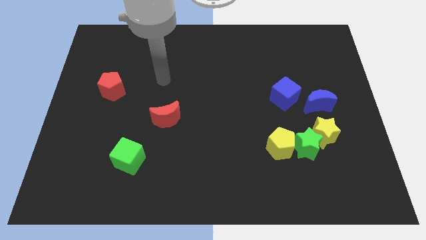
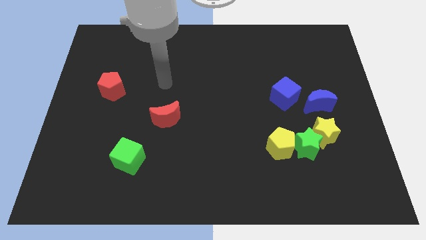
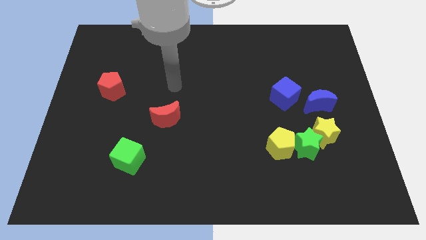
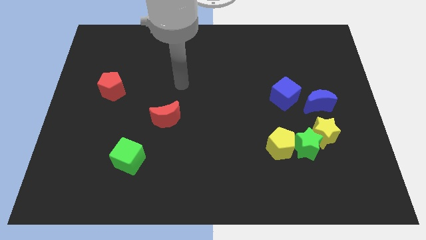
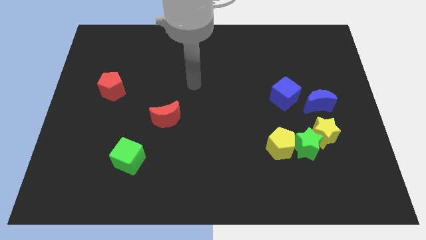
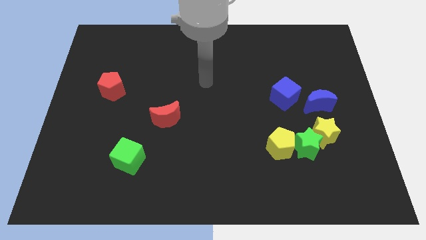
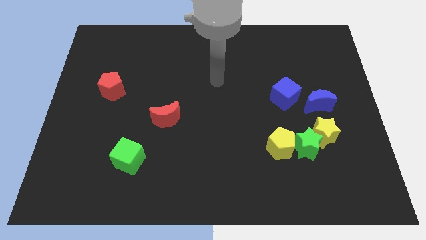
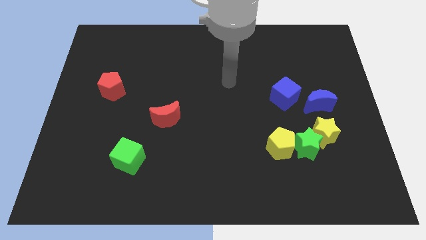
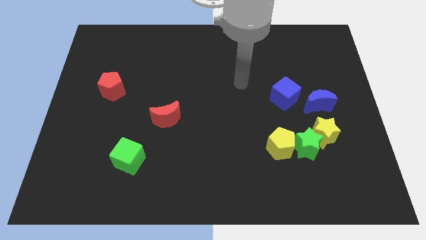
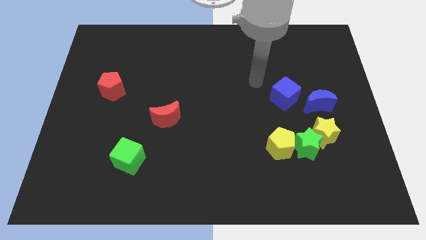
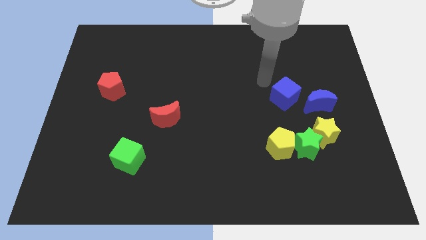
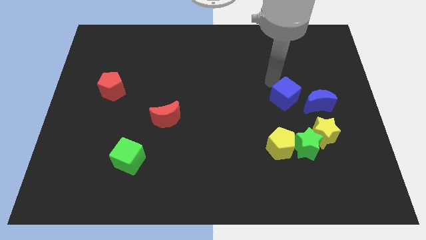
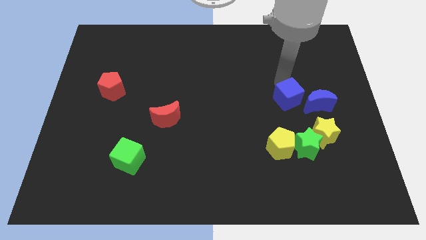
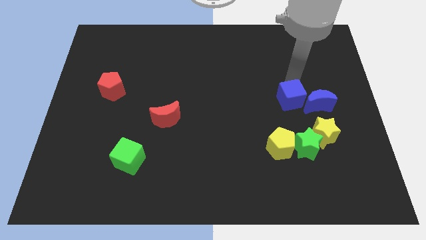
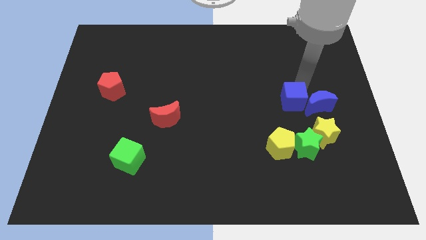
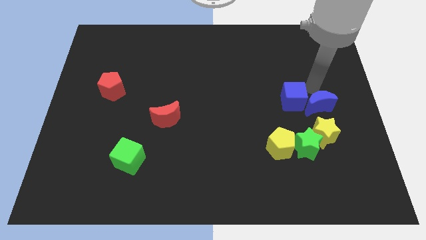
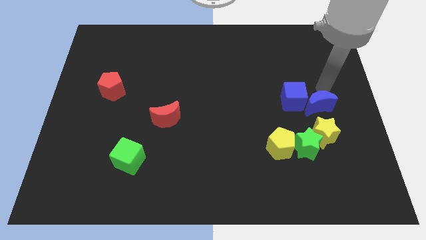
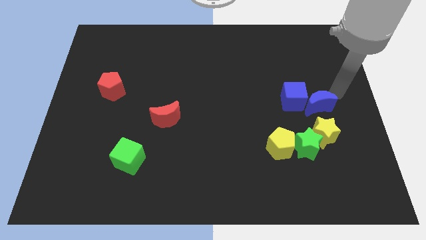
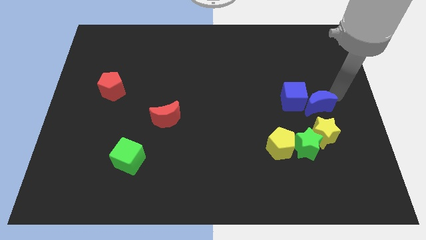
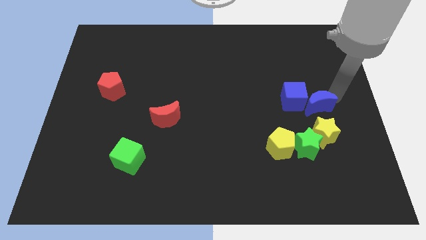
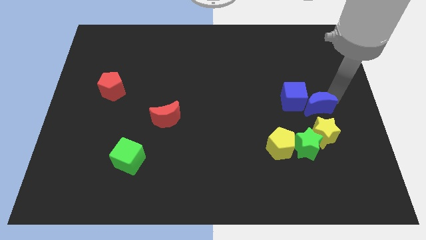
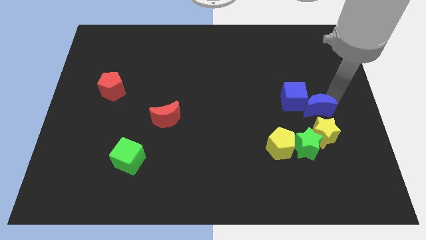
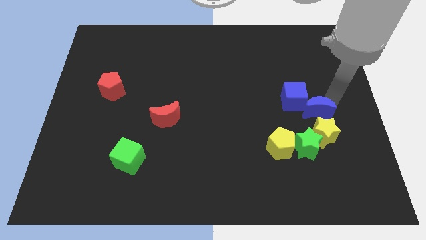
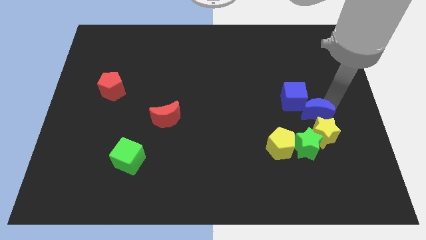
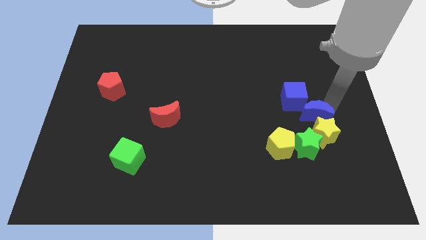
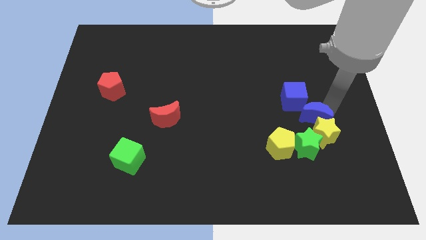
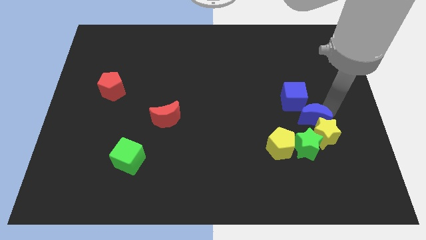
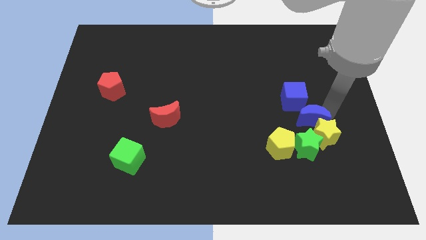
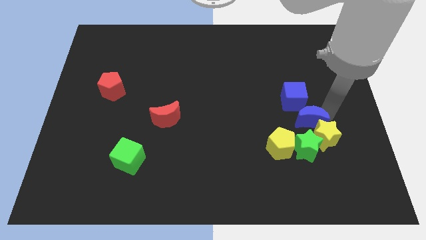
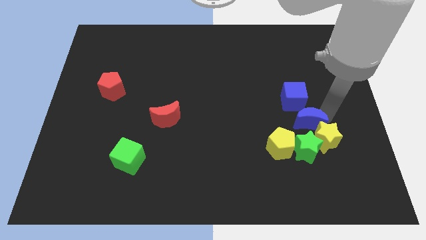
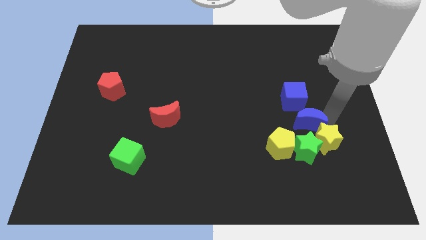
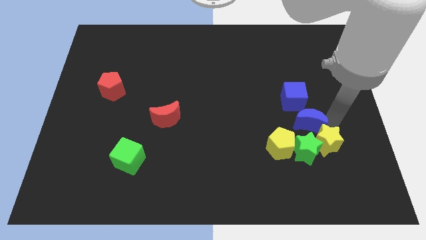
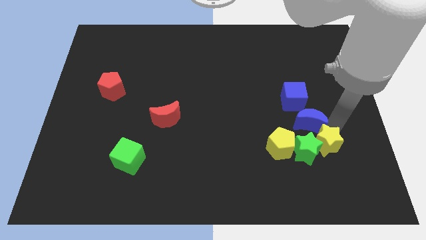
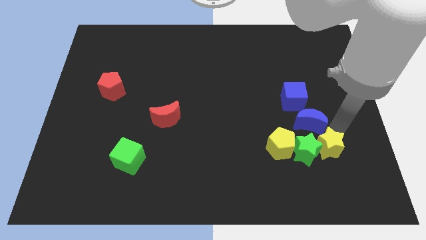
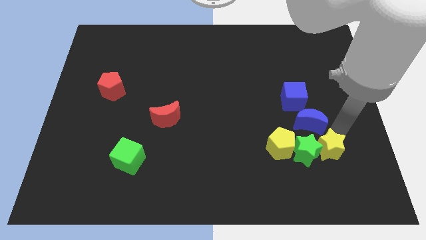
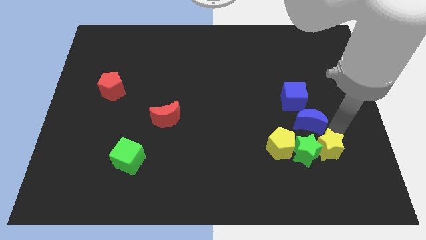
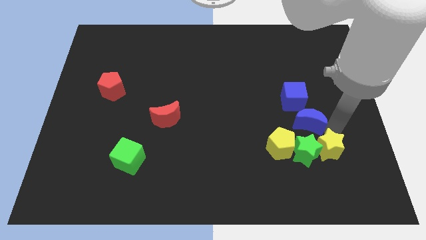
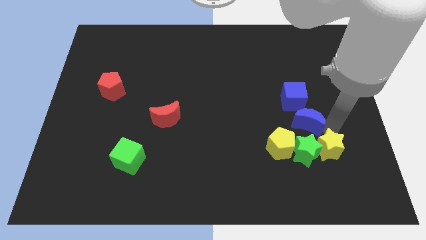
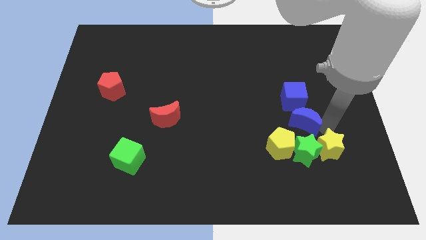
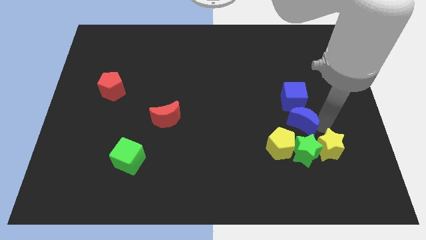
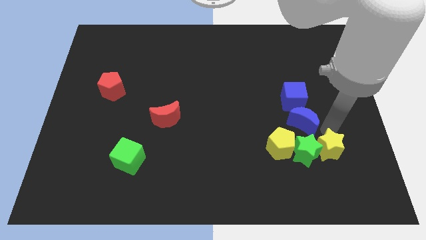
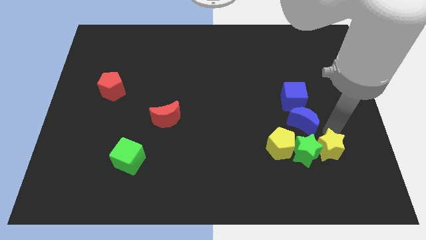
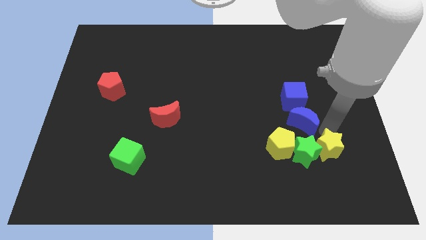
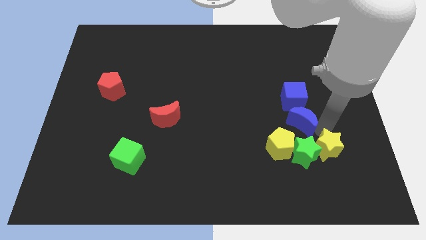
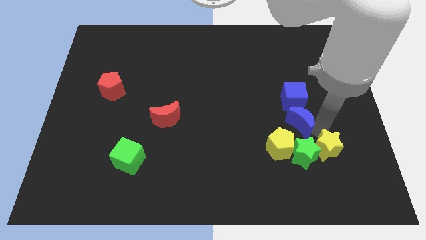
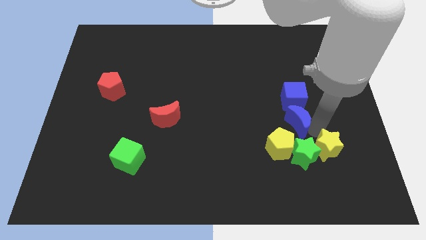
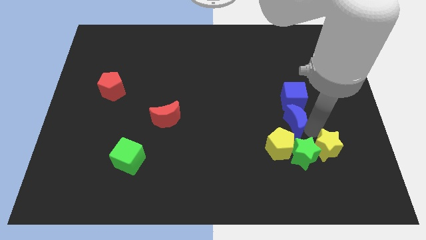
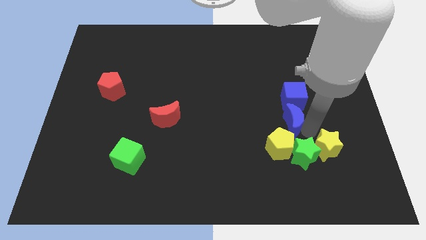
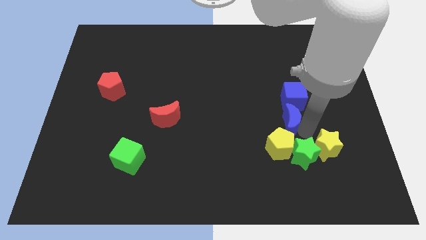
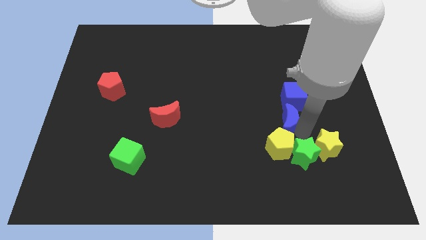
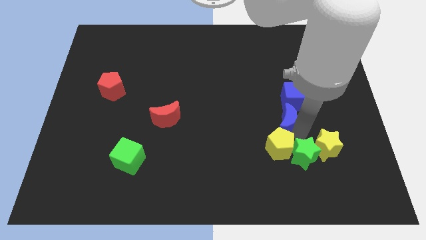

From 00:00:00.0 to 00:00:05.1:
push the blue moon a little bit left

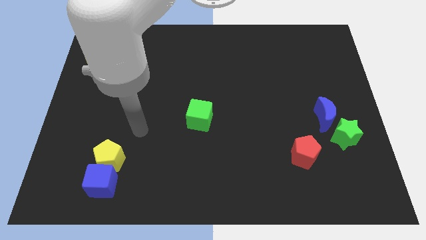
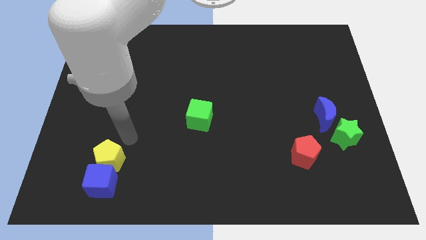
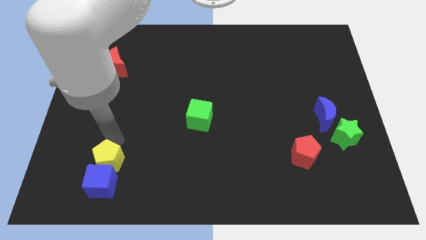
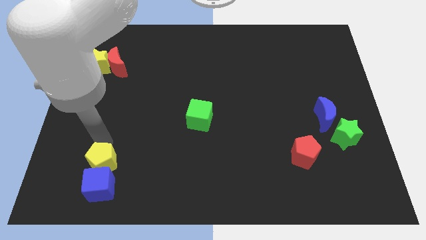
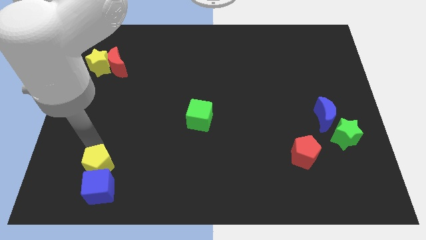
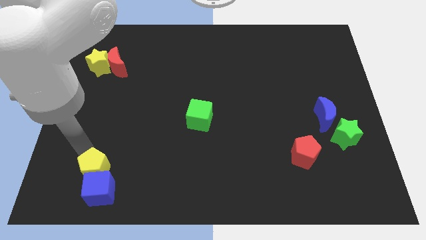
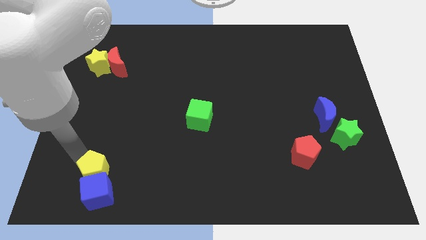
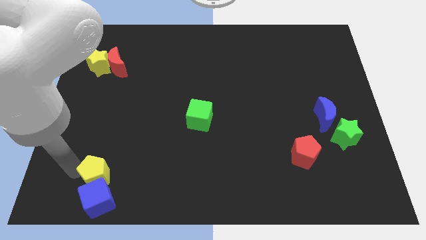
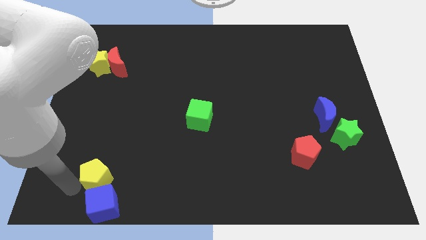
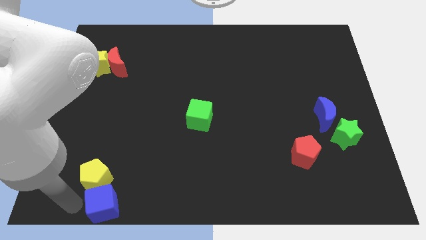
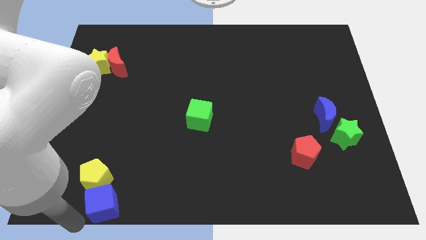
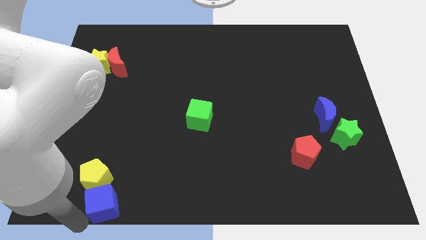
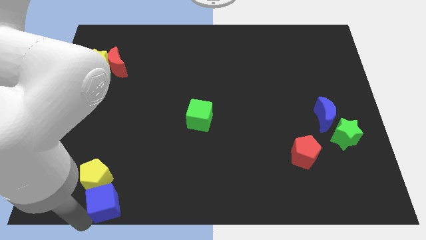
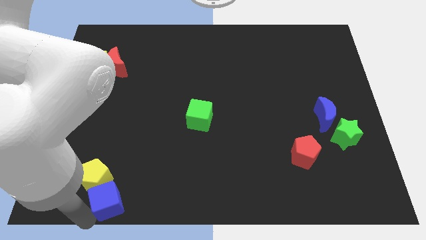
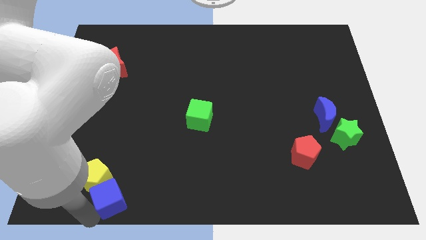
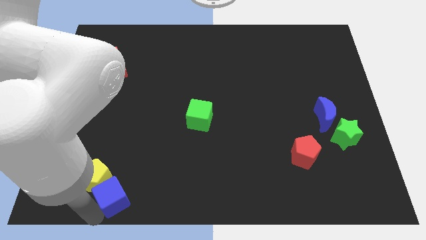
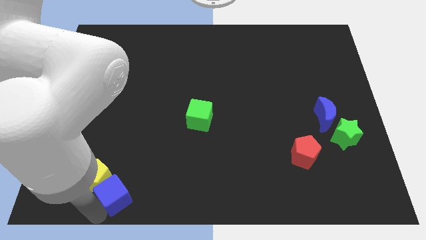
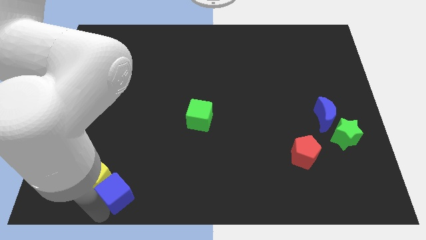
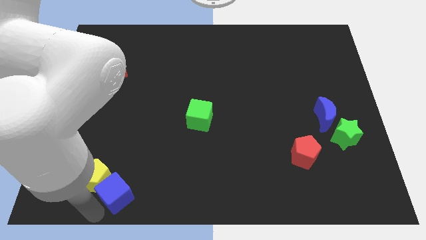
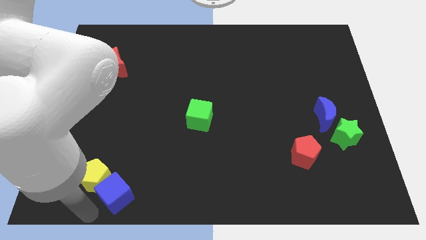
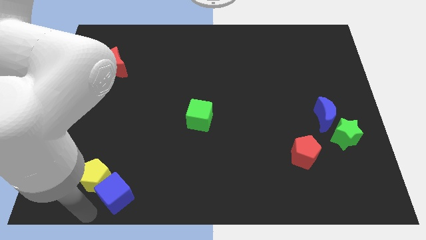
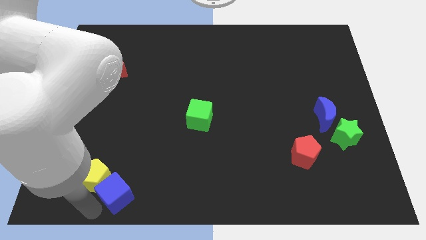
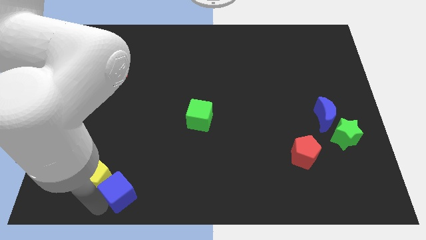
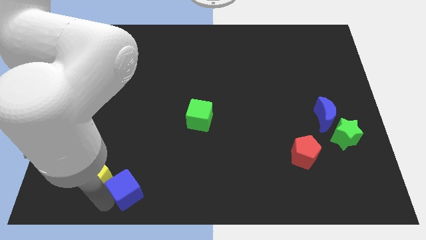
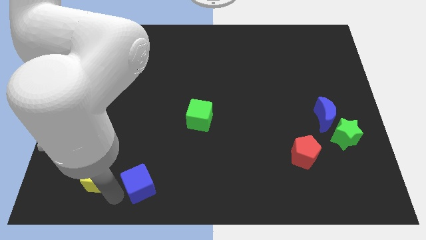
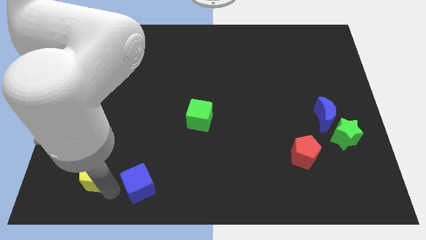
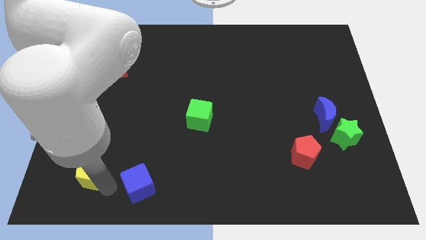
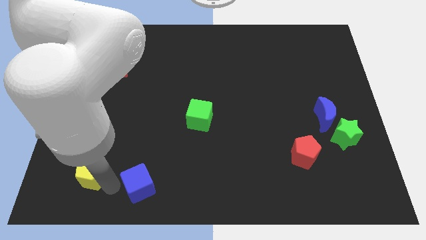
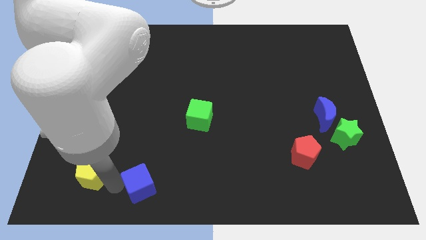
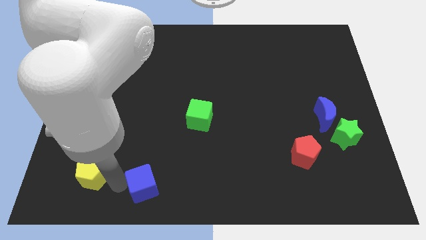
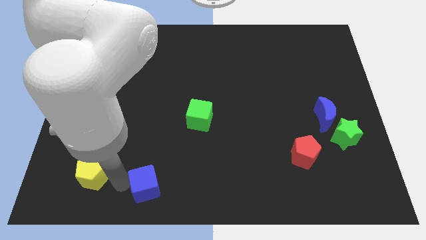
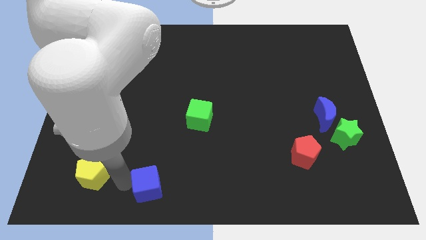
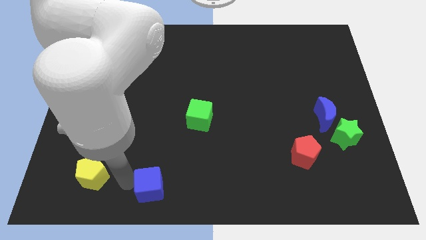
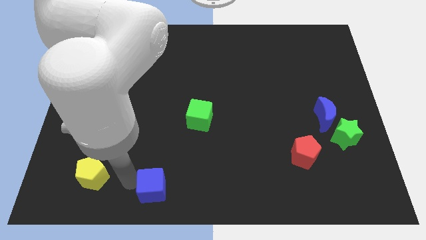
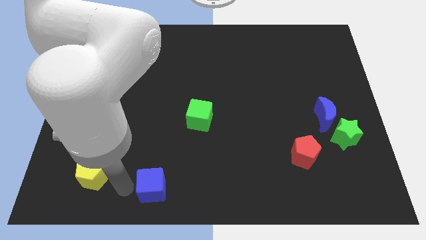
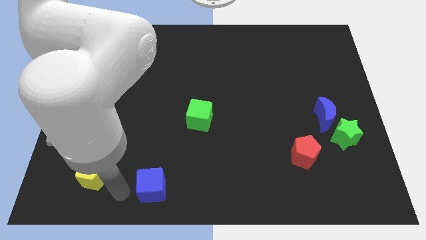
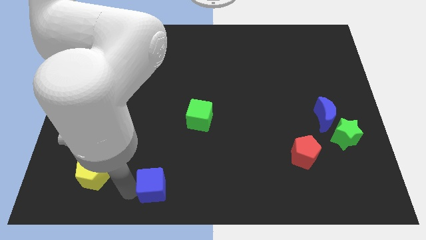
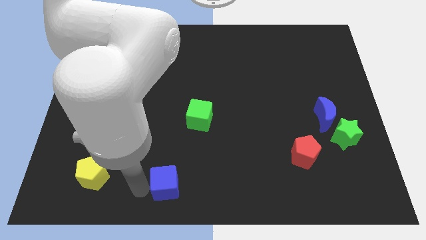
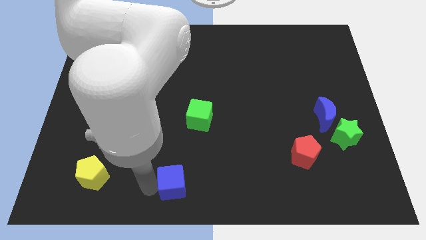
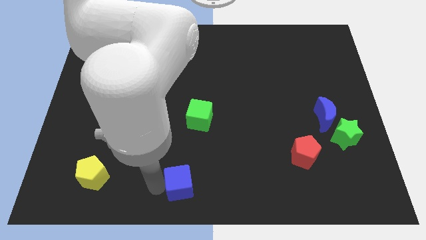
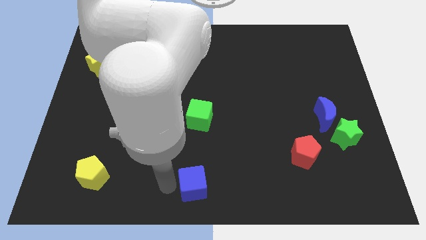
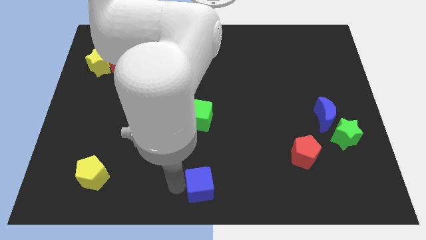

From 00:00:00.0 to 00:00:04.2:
push the blue cube right
